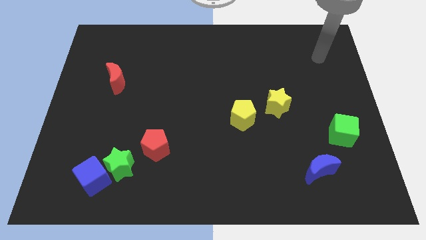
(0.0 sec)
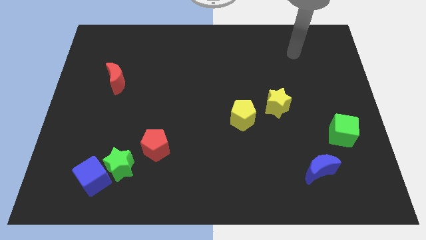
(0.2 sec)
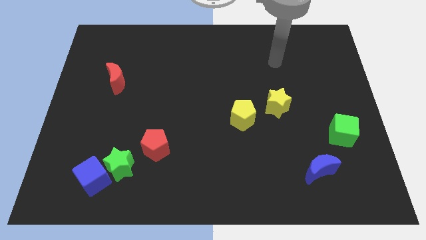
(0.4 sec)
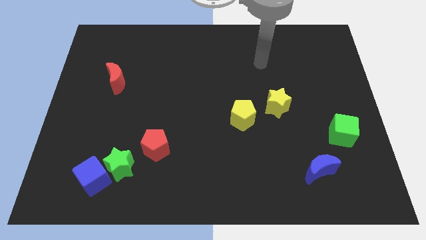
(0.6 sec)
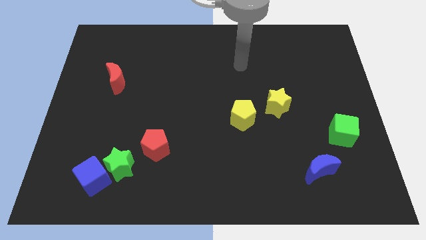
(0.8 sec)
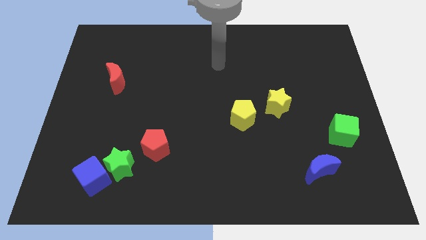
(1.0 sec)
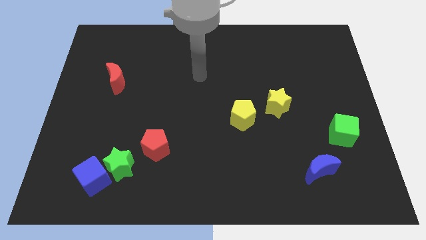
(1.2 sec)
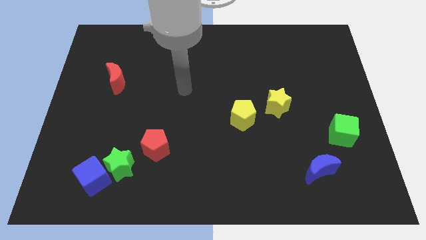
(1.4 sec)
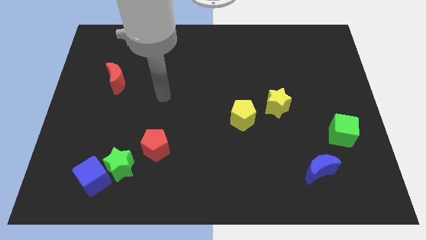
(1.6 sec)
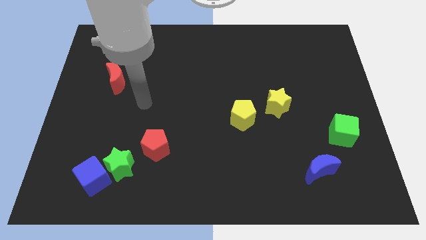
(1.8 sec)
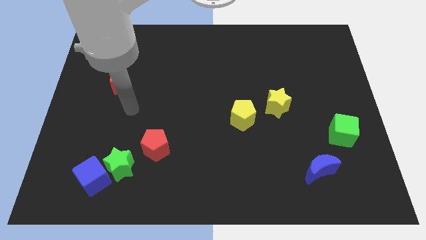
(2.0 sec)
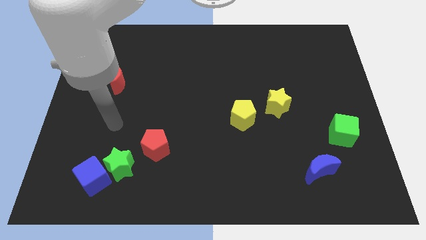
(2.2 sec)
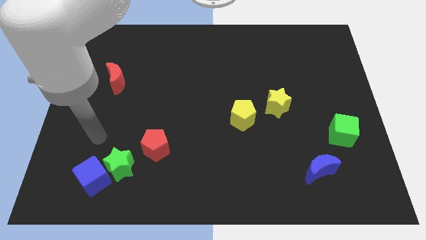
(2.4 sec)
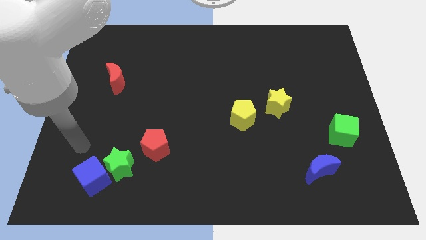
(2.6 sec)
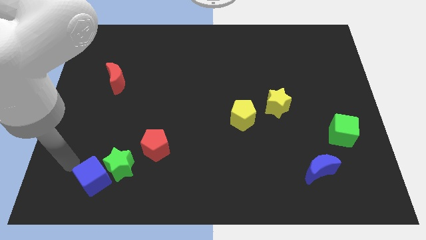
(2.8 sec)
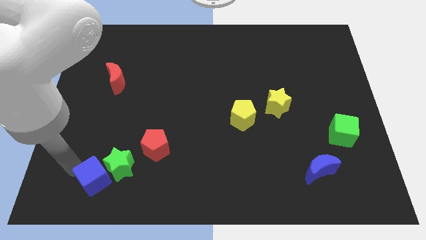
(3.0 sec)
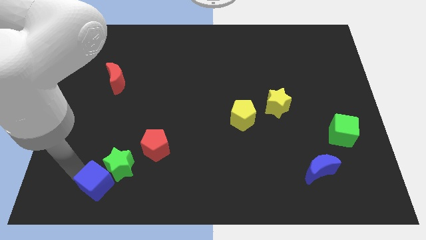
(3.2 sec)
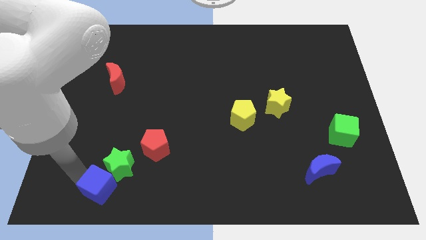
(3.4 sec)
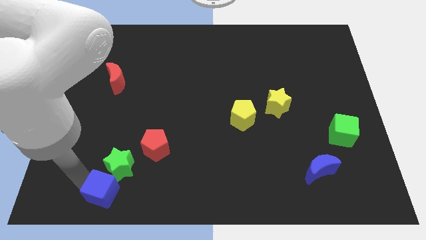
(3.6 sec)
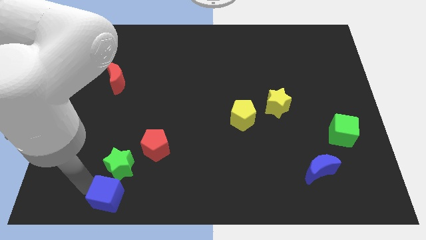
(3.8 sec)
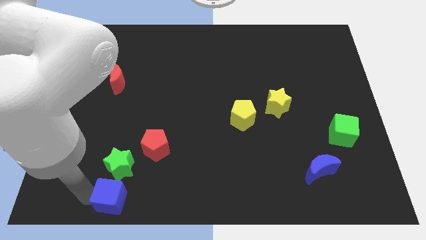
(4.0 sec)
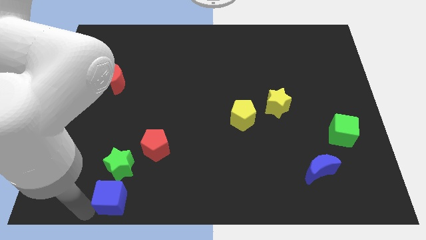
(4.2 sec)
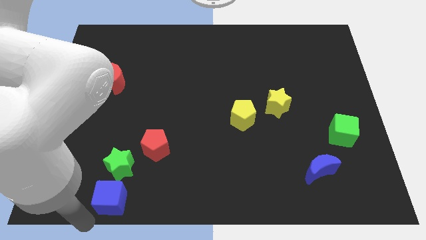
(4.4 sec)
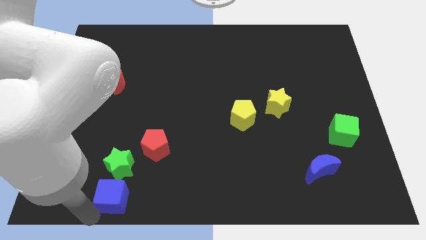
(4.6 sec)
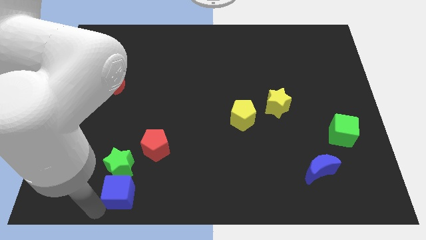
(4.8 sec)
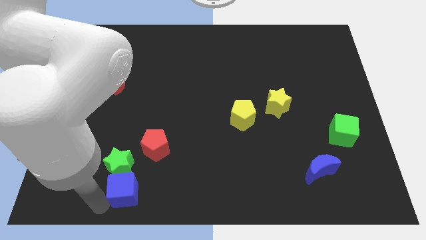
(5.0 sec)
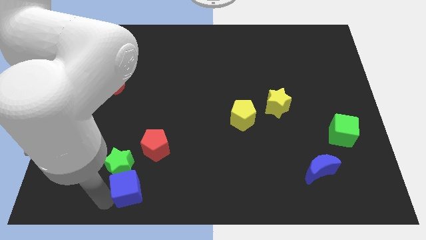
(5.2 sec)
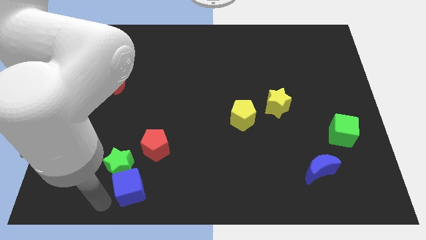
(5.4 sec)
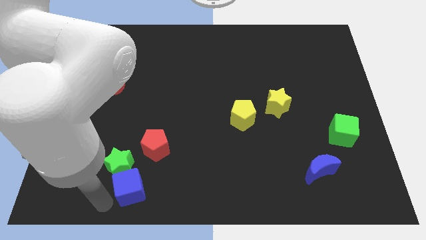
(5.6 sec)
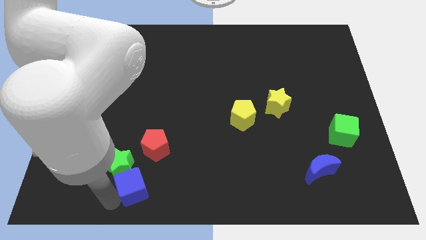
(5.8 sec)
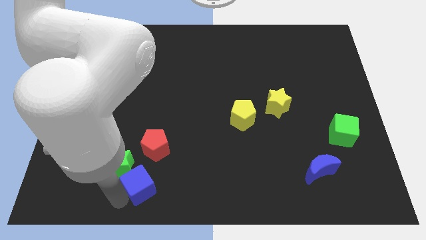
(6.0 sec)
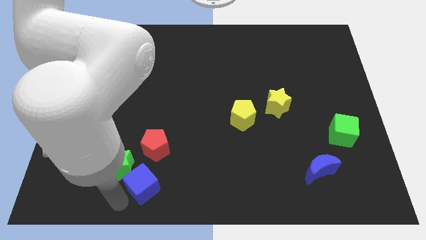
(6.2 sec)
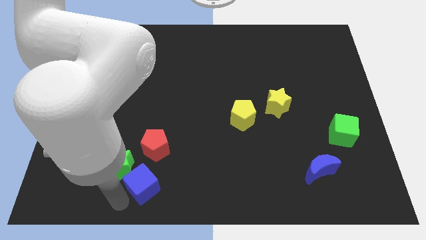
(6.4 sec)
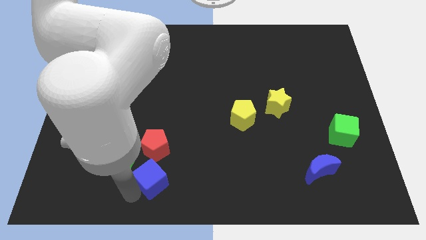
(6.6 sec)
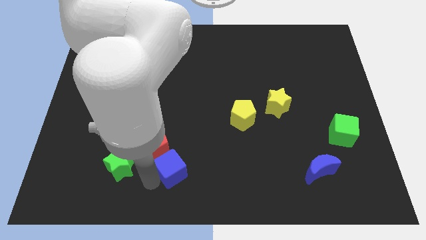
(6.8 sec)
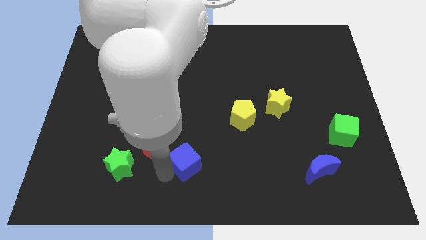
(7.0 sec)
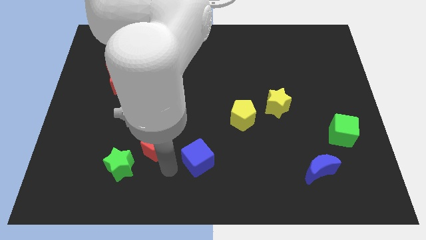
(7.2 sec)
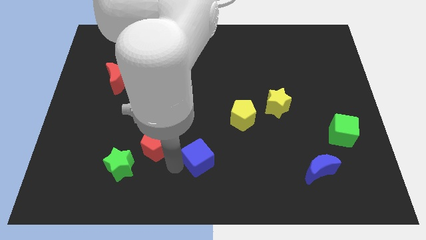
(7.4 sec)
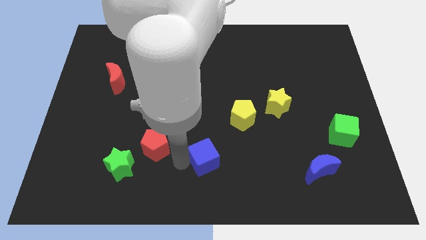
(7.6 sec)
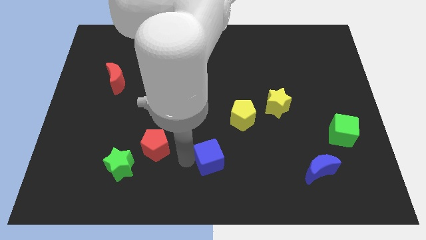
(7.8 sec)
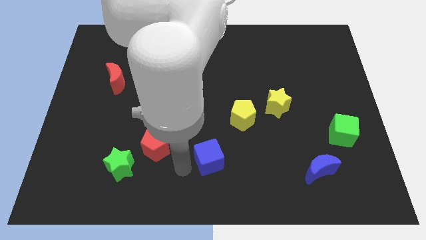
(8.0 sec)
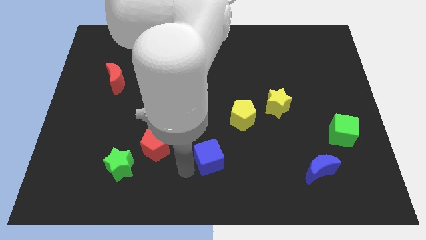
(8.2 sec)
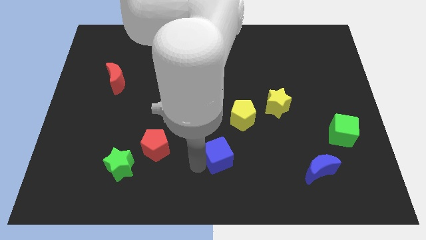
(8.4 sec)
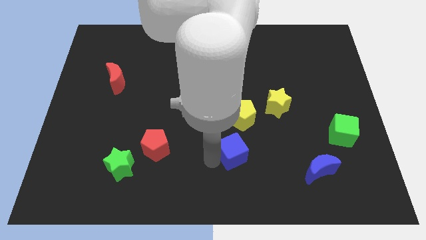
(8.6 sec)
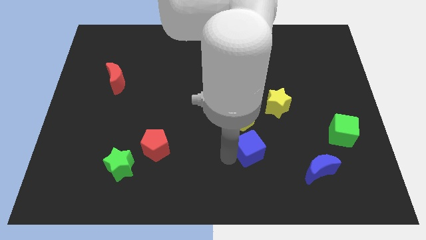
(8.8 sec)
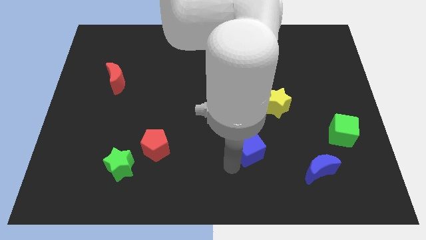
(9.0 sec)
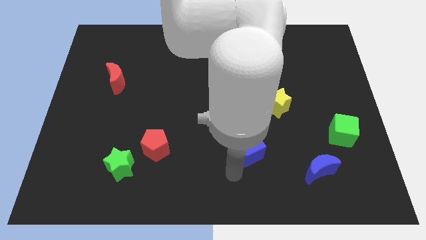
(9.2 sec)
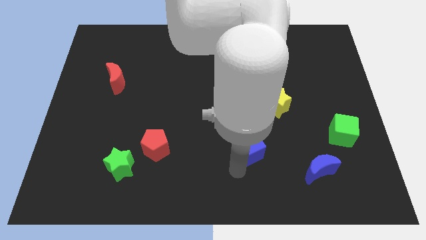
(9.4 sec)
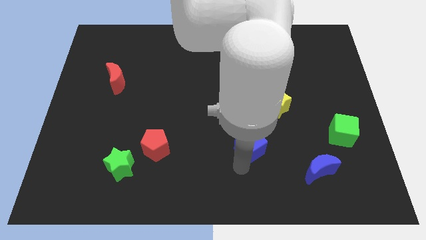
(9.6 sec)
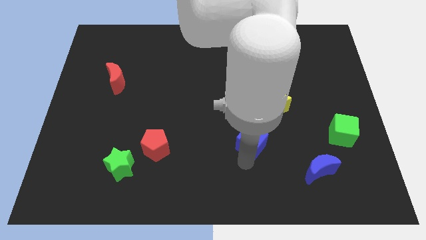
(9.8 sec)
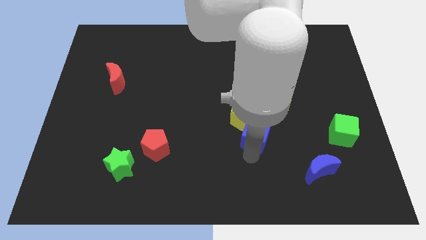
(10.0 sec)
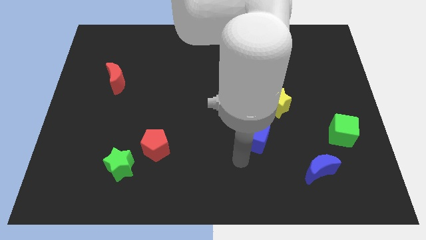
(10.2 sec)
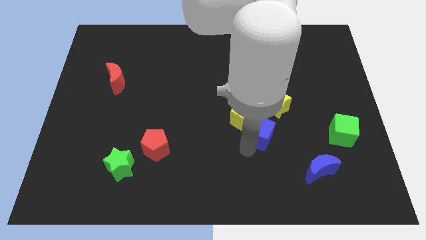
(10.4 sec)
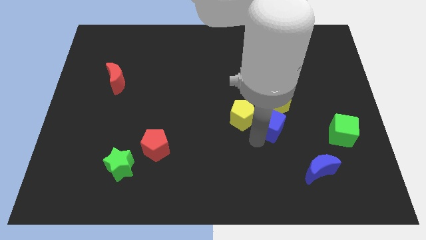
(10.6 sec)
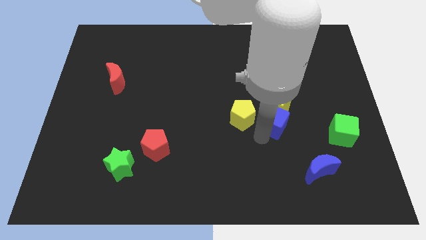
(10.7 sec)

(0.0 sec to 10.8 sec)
push the blue cube to the yellow star

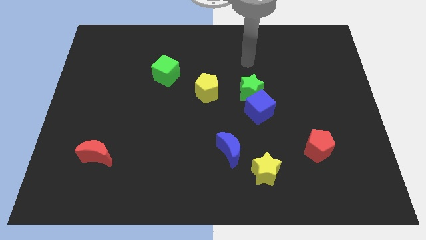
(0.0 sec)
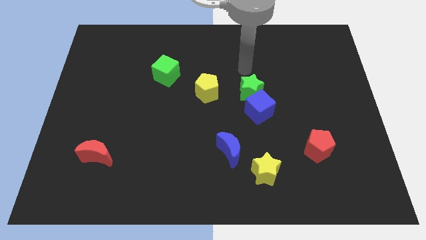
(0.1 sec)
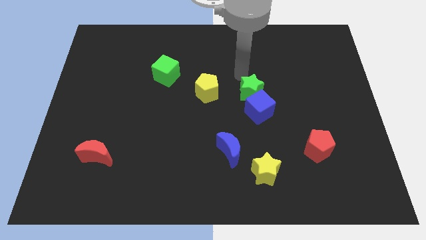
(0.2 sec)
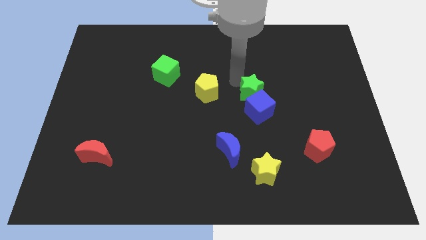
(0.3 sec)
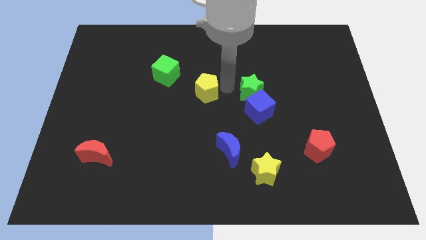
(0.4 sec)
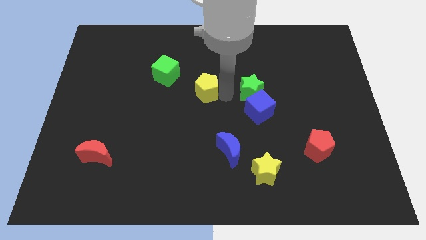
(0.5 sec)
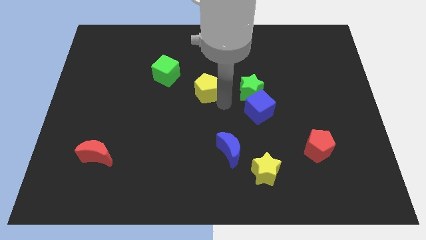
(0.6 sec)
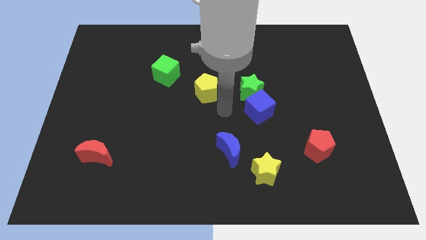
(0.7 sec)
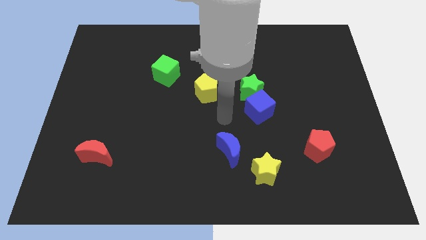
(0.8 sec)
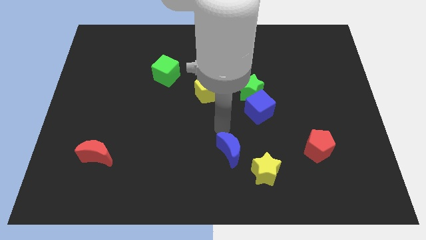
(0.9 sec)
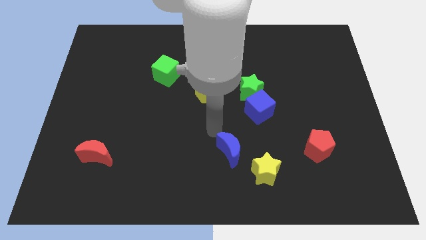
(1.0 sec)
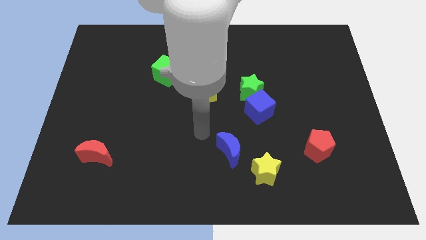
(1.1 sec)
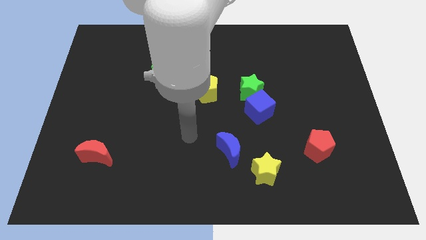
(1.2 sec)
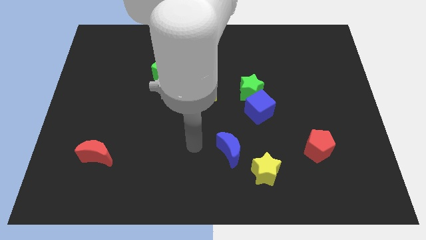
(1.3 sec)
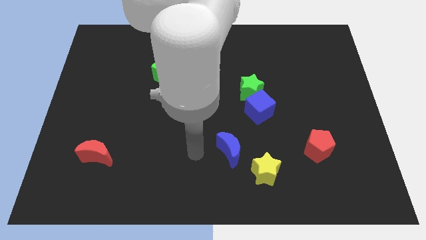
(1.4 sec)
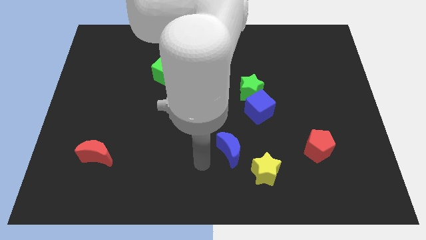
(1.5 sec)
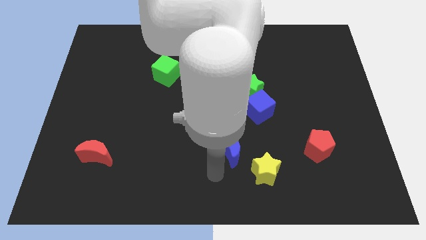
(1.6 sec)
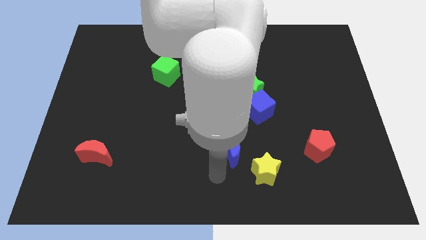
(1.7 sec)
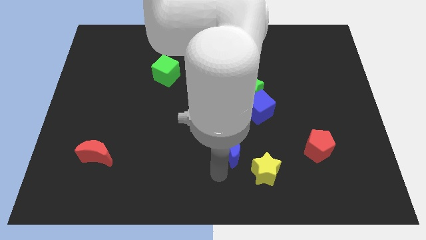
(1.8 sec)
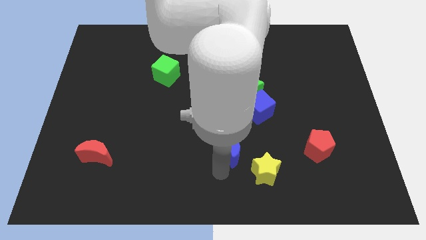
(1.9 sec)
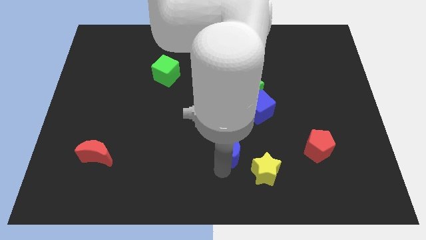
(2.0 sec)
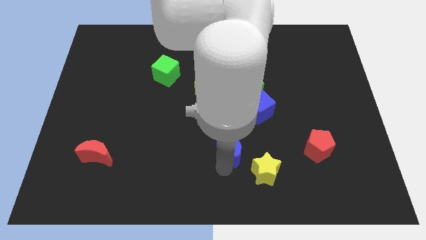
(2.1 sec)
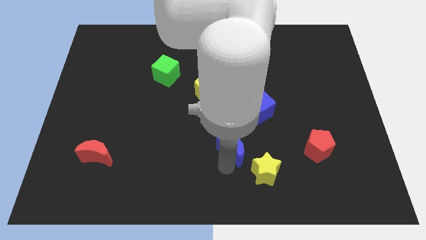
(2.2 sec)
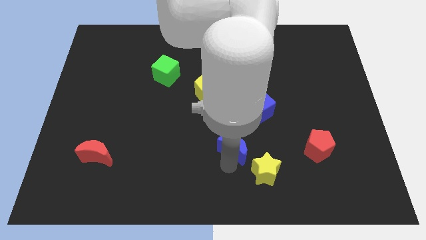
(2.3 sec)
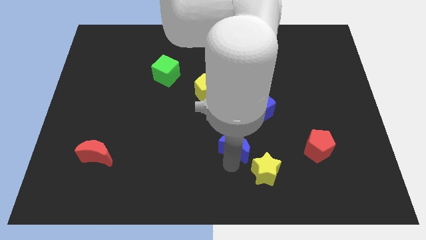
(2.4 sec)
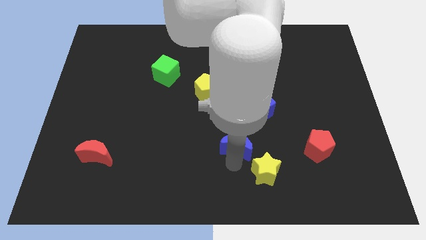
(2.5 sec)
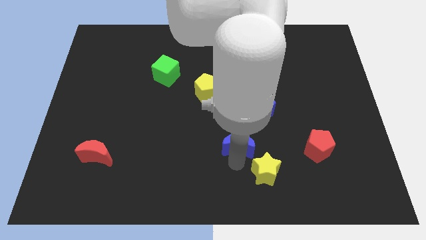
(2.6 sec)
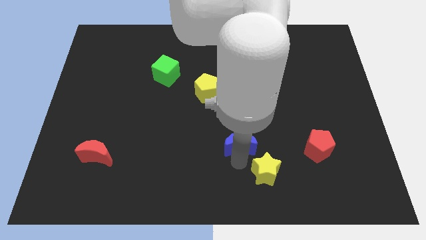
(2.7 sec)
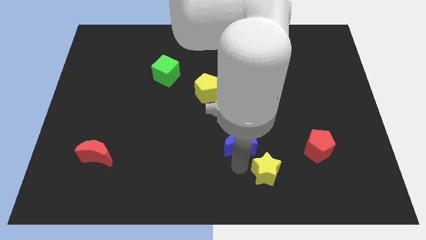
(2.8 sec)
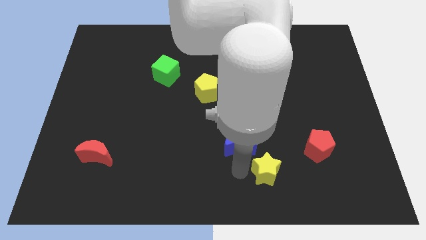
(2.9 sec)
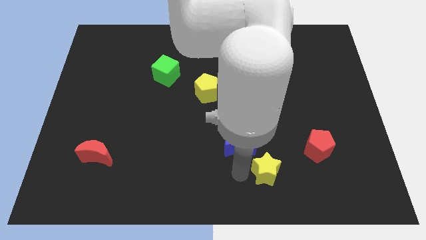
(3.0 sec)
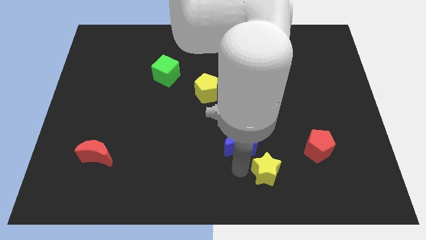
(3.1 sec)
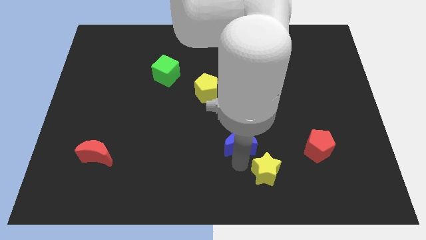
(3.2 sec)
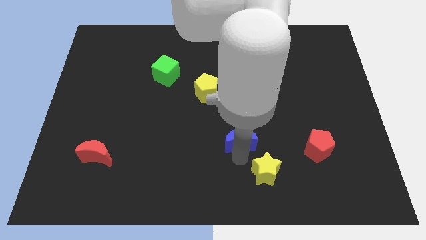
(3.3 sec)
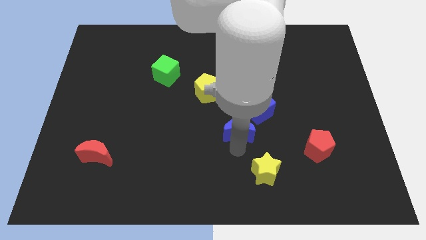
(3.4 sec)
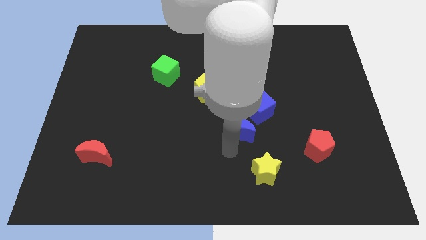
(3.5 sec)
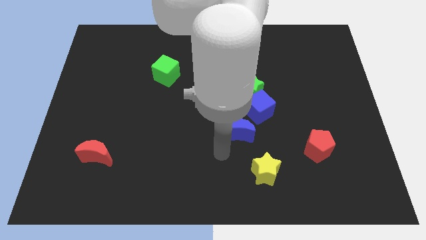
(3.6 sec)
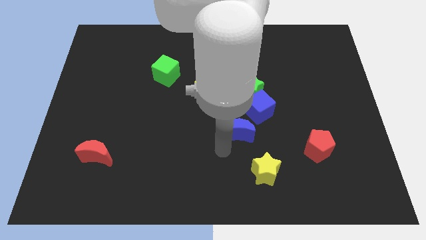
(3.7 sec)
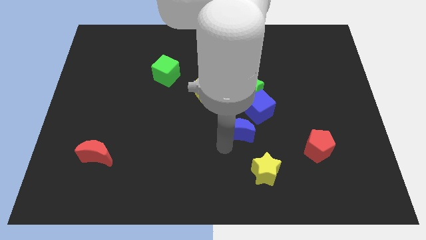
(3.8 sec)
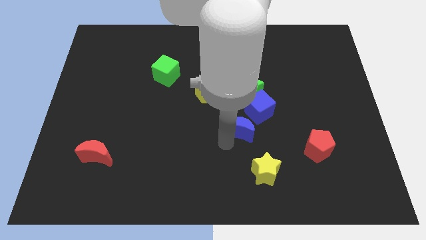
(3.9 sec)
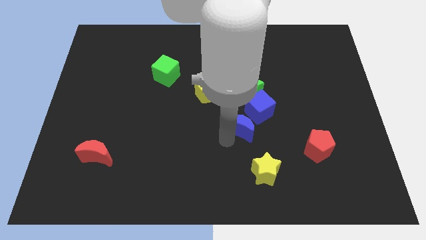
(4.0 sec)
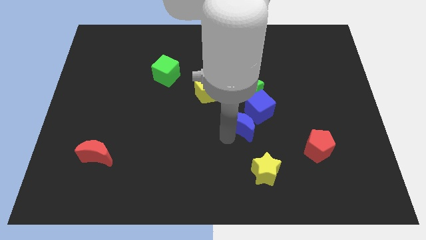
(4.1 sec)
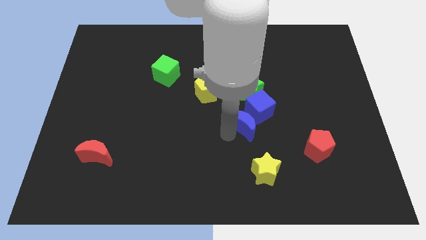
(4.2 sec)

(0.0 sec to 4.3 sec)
put the blue moon towards the blue cube
